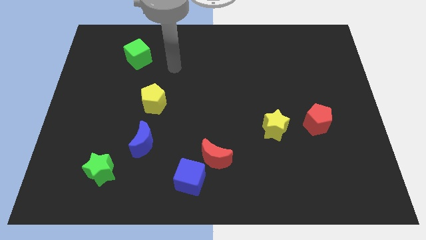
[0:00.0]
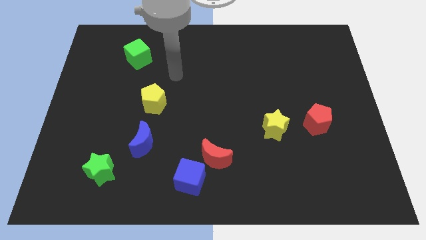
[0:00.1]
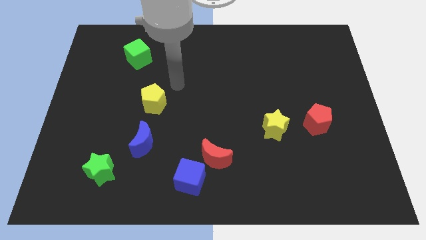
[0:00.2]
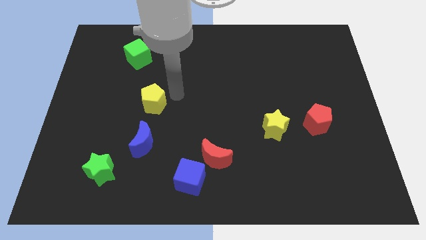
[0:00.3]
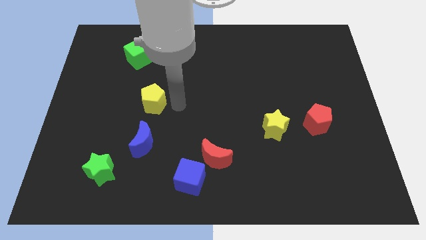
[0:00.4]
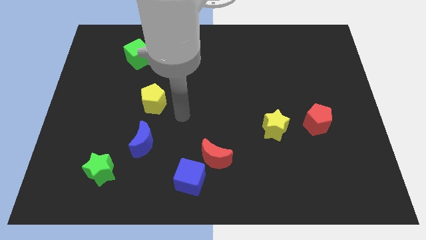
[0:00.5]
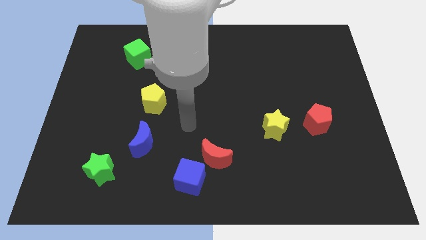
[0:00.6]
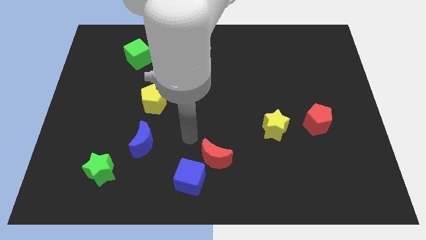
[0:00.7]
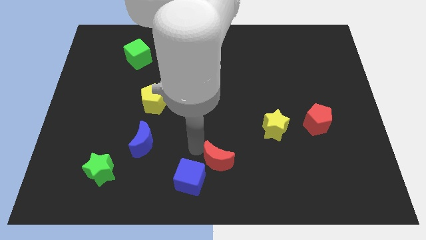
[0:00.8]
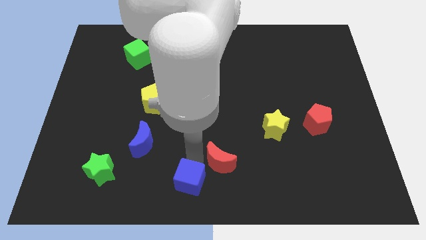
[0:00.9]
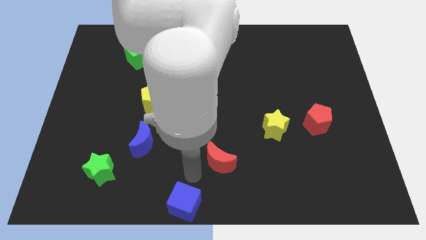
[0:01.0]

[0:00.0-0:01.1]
separate the red moon from the blue cube

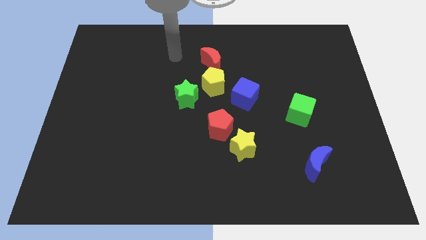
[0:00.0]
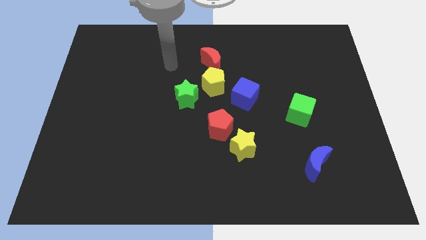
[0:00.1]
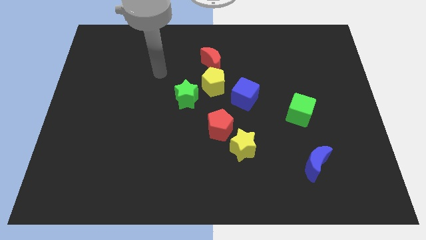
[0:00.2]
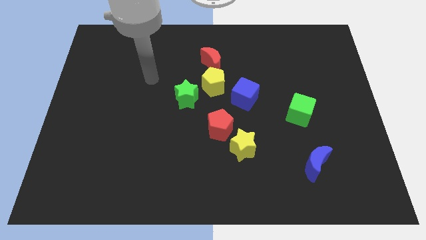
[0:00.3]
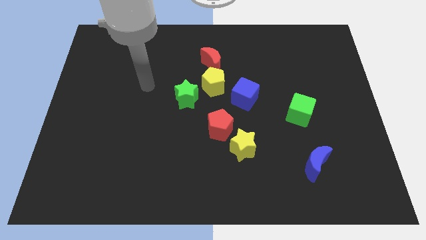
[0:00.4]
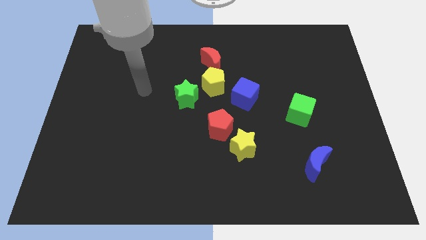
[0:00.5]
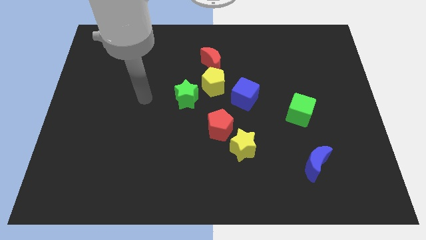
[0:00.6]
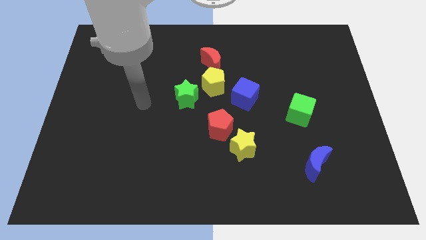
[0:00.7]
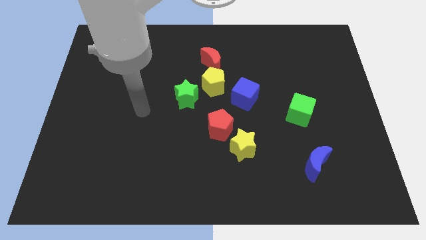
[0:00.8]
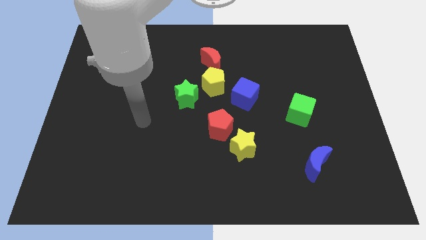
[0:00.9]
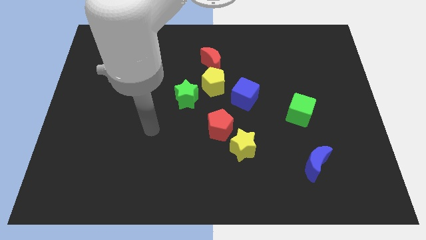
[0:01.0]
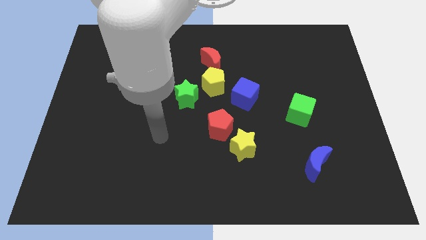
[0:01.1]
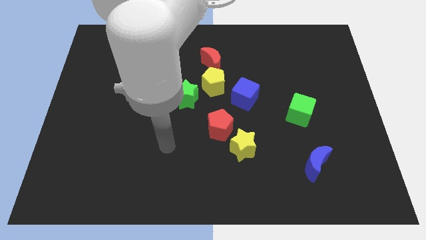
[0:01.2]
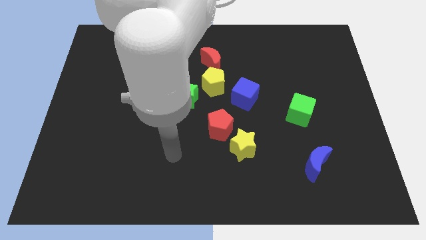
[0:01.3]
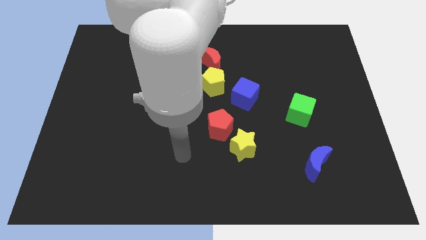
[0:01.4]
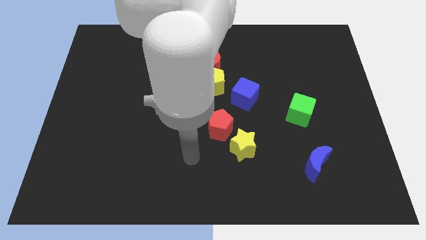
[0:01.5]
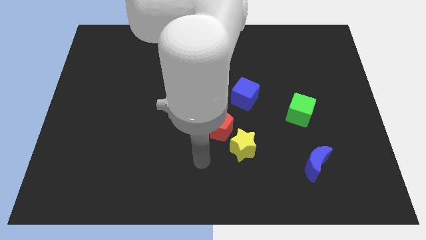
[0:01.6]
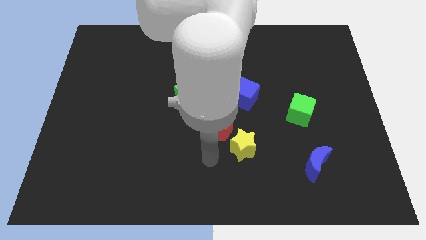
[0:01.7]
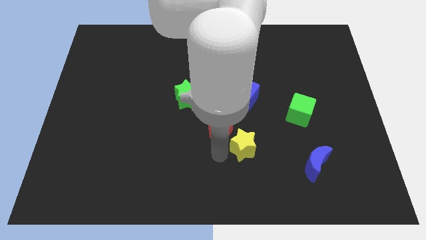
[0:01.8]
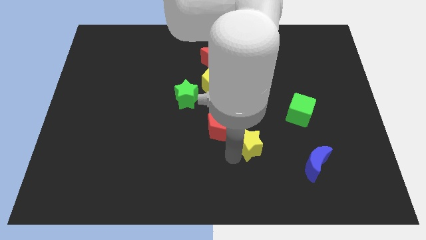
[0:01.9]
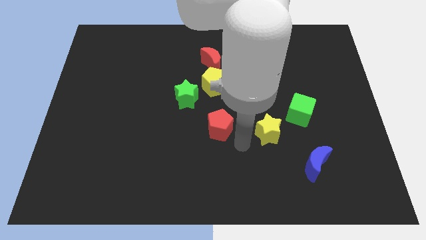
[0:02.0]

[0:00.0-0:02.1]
pull the red pentagon apart from the yellow star

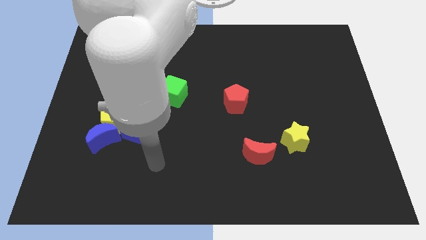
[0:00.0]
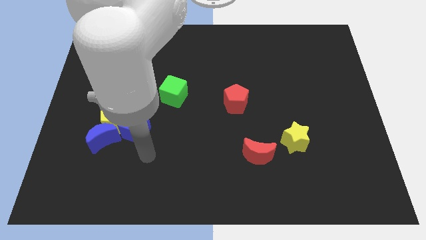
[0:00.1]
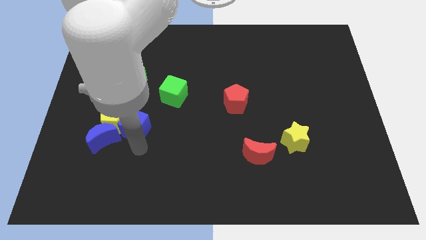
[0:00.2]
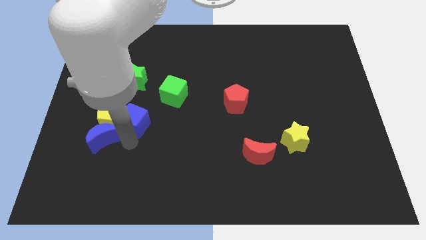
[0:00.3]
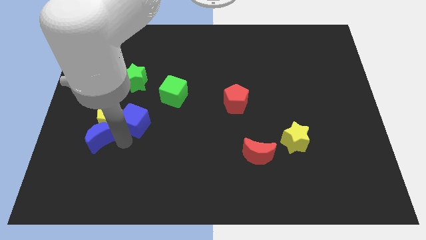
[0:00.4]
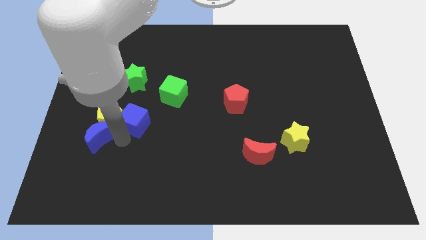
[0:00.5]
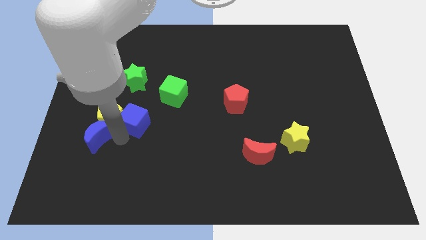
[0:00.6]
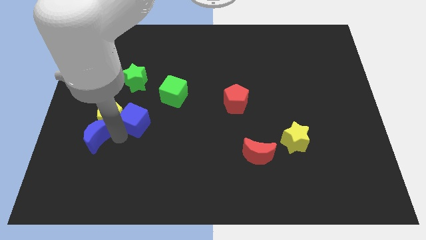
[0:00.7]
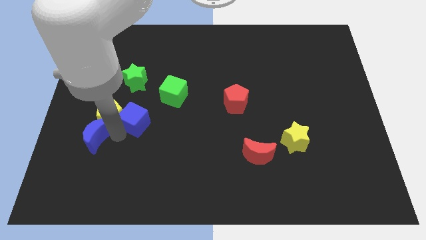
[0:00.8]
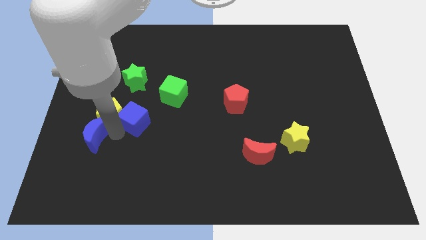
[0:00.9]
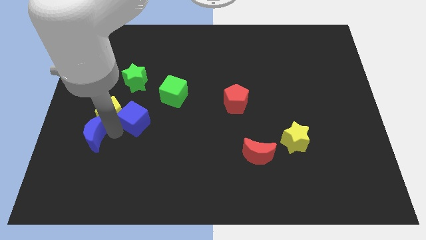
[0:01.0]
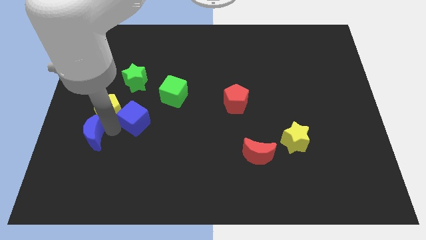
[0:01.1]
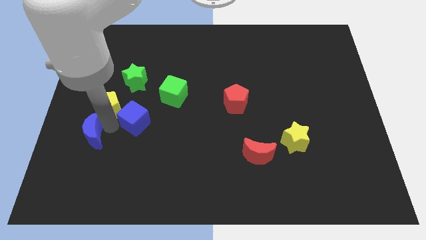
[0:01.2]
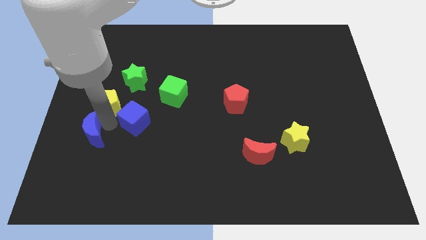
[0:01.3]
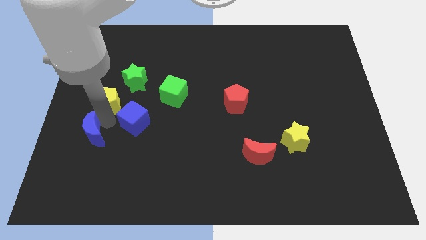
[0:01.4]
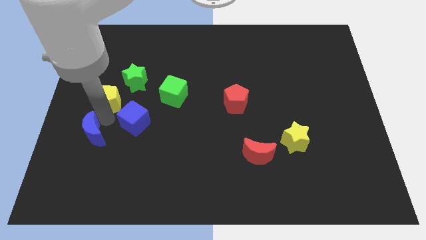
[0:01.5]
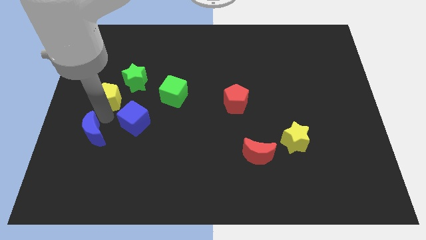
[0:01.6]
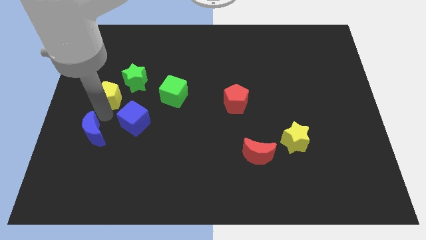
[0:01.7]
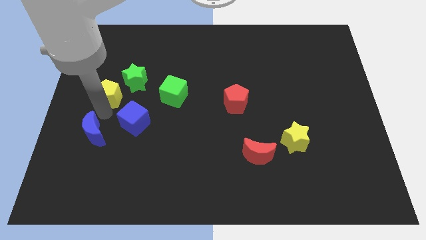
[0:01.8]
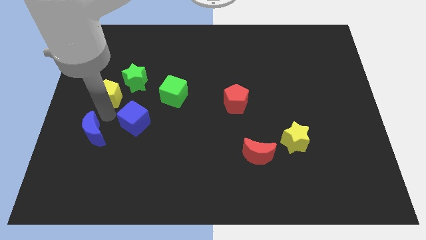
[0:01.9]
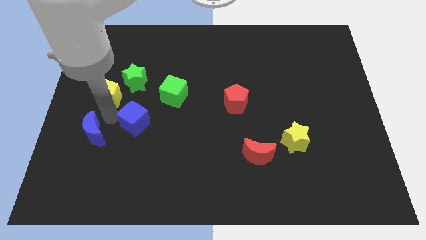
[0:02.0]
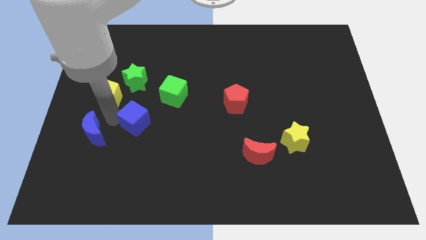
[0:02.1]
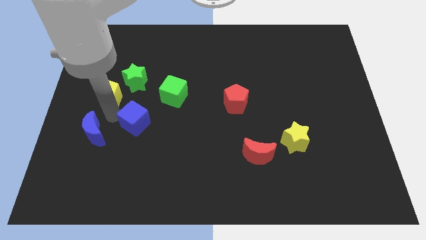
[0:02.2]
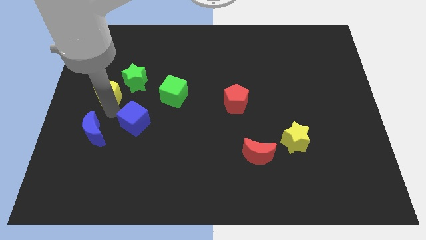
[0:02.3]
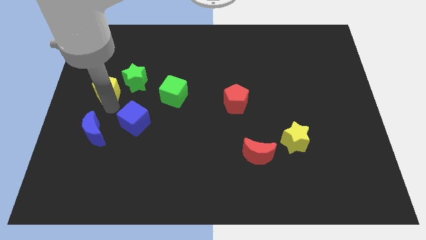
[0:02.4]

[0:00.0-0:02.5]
separate the yellow pentagon from the blue moon and blue cube

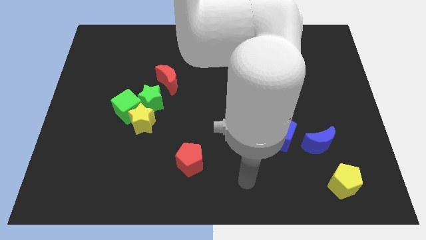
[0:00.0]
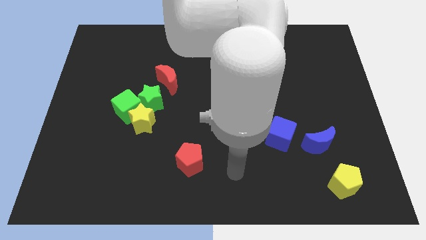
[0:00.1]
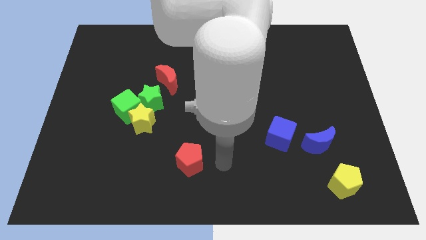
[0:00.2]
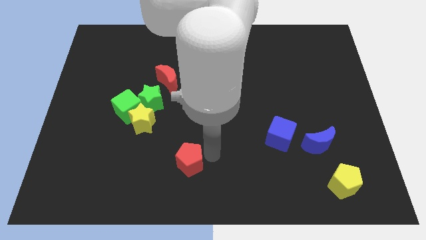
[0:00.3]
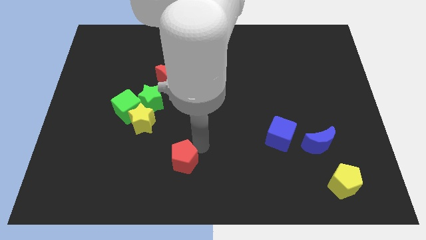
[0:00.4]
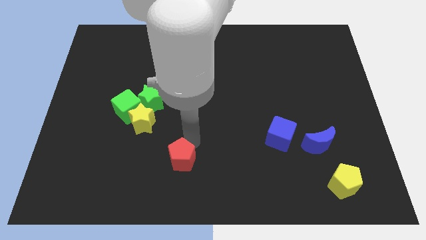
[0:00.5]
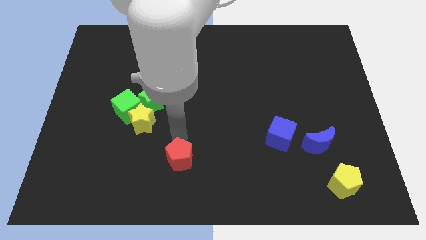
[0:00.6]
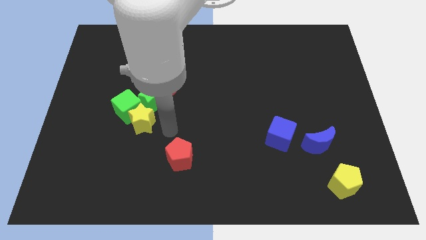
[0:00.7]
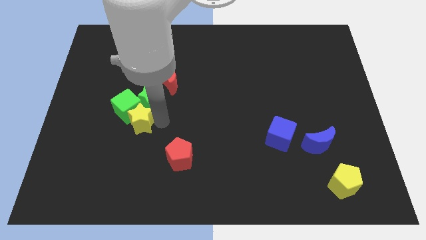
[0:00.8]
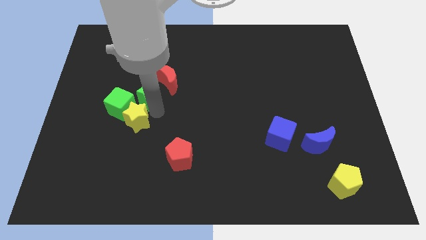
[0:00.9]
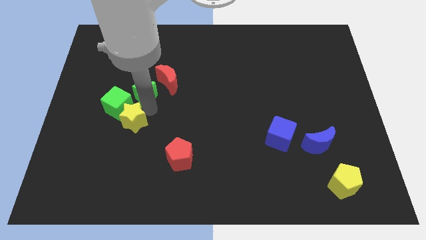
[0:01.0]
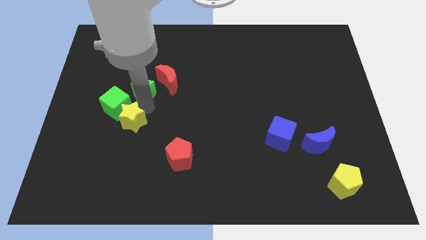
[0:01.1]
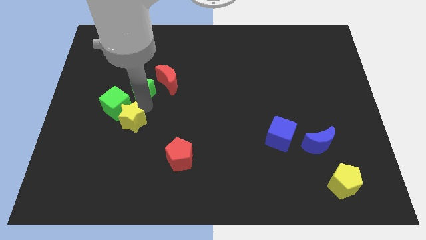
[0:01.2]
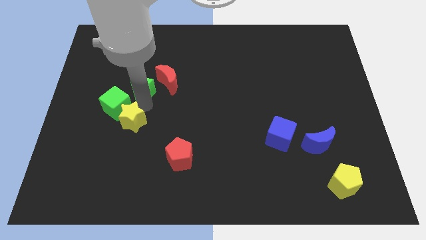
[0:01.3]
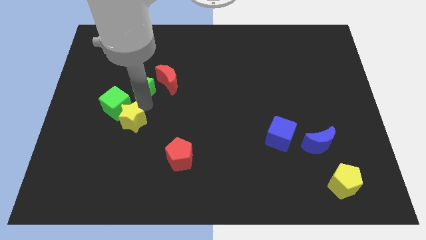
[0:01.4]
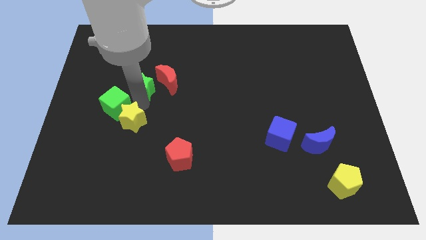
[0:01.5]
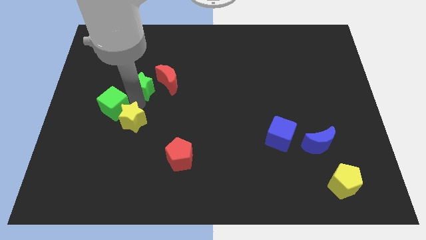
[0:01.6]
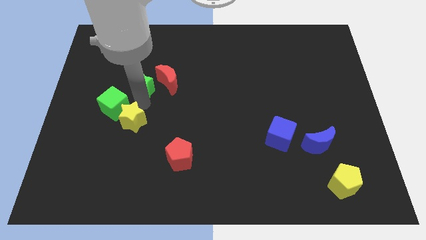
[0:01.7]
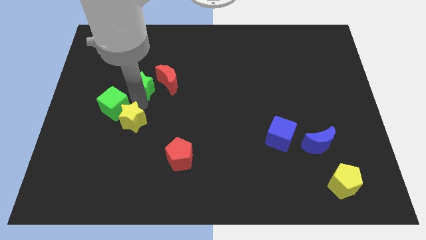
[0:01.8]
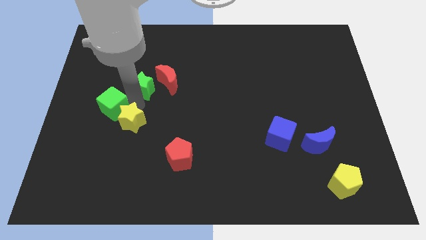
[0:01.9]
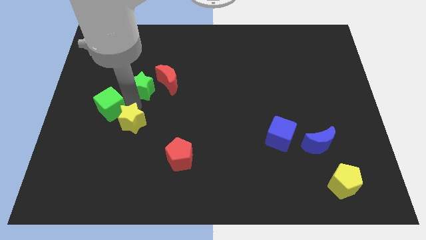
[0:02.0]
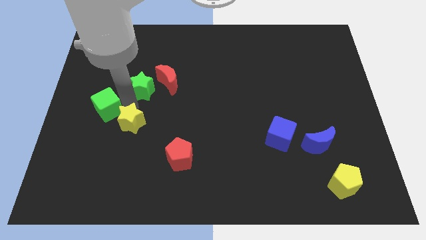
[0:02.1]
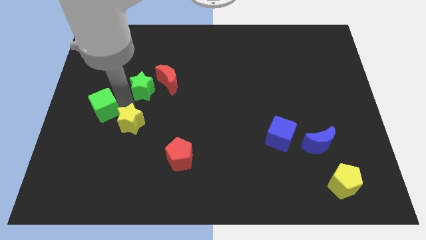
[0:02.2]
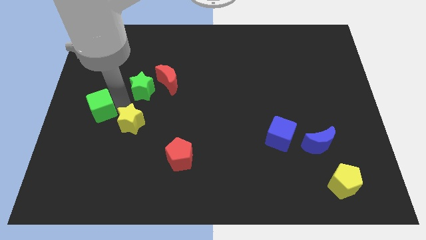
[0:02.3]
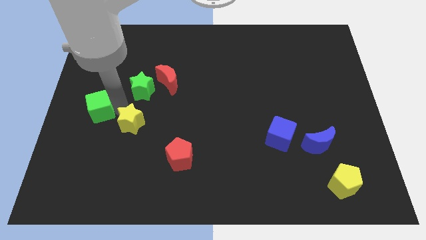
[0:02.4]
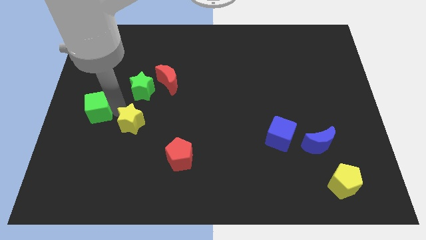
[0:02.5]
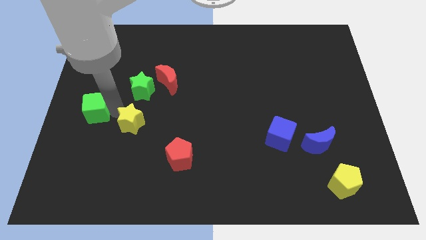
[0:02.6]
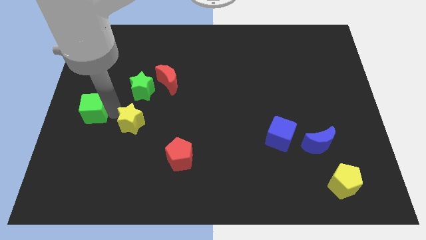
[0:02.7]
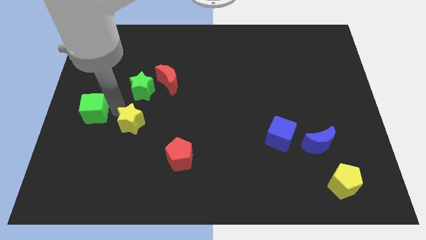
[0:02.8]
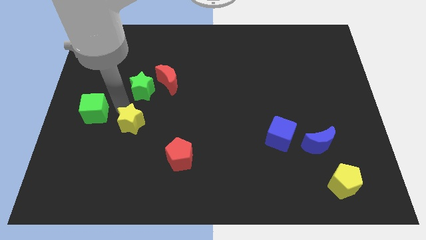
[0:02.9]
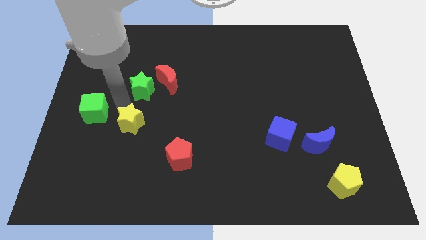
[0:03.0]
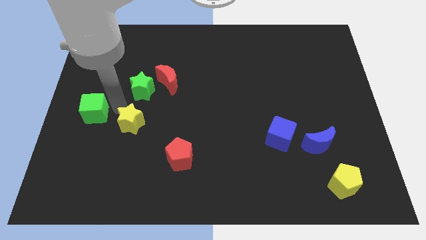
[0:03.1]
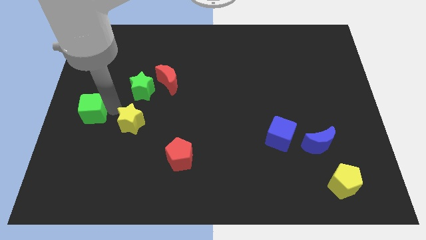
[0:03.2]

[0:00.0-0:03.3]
separate the green cube from the yellow star and green star

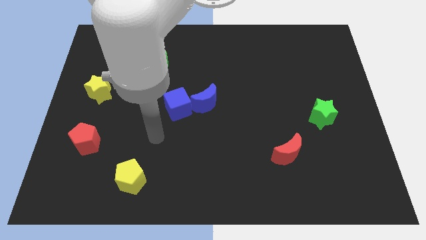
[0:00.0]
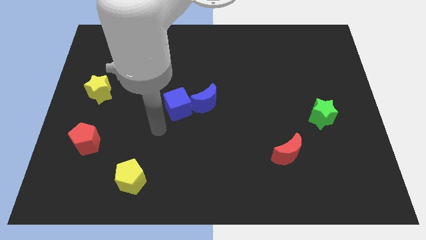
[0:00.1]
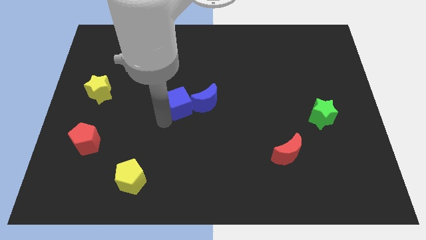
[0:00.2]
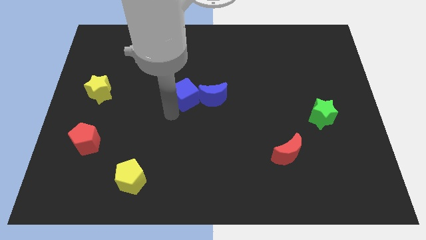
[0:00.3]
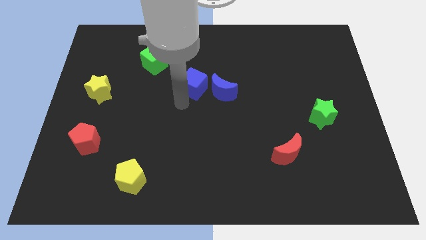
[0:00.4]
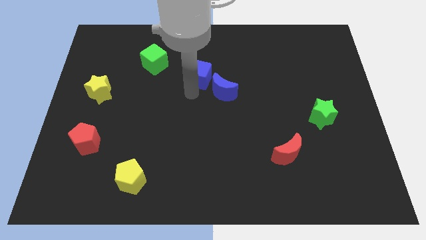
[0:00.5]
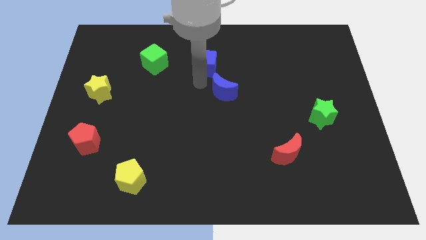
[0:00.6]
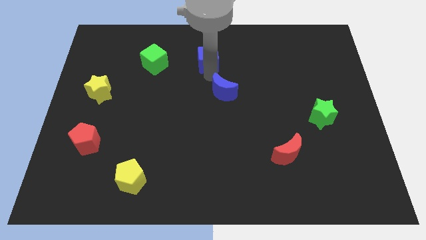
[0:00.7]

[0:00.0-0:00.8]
separate the blue moon from the blue cube
